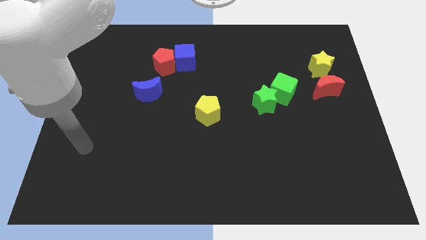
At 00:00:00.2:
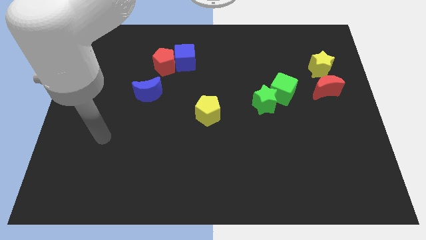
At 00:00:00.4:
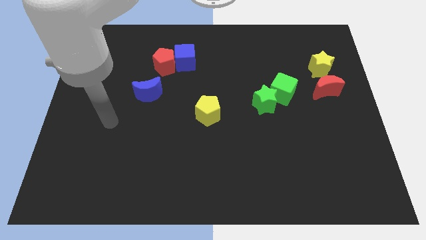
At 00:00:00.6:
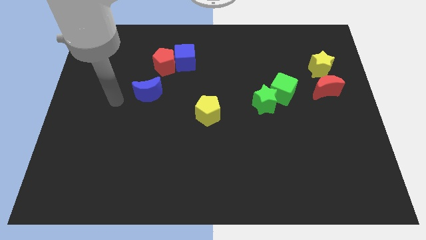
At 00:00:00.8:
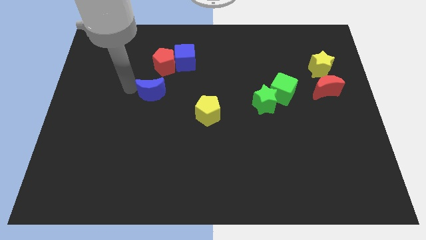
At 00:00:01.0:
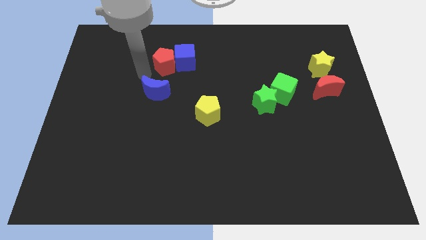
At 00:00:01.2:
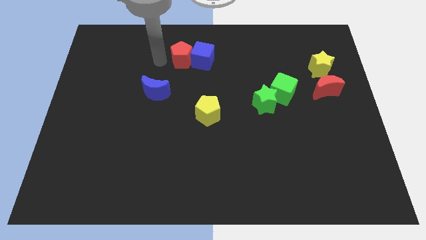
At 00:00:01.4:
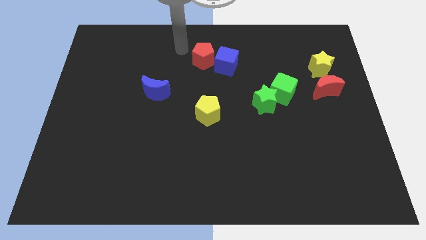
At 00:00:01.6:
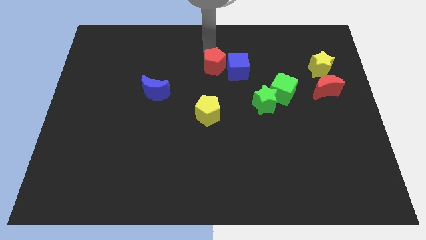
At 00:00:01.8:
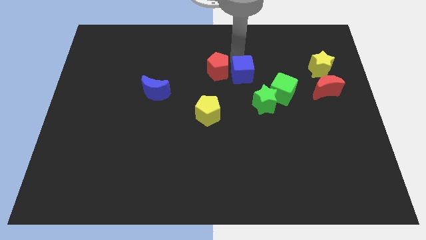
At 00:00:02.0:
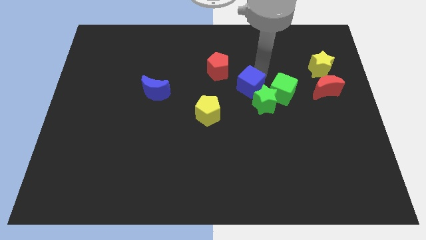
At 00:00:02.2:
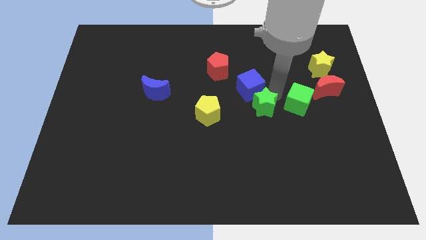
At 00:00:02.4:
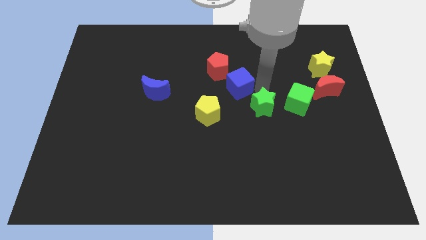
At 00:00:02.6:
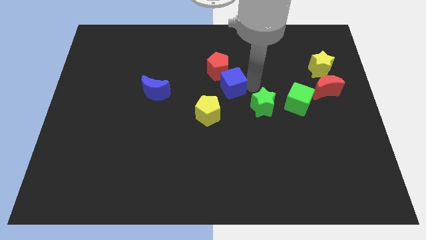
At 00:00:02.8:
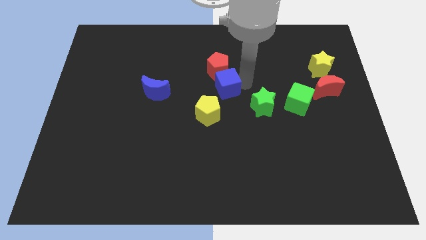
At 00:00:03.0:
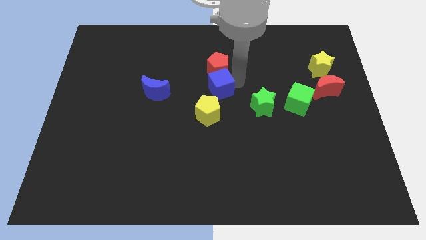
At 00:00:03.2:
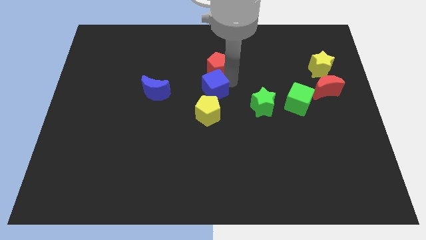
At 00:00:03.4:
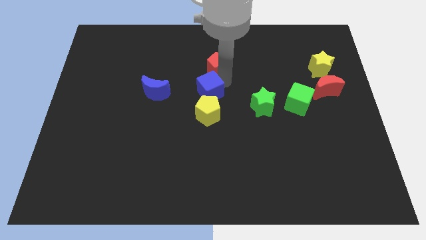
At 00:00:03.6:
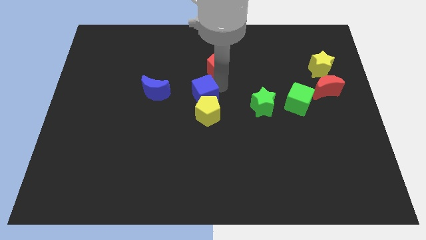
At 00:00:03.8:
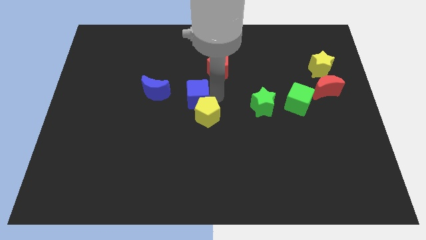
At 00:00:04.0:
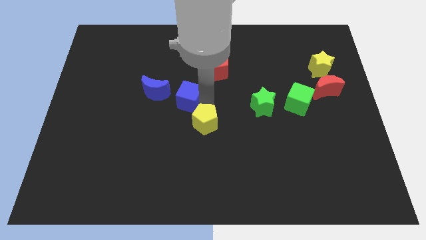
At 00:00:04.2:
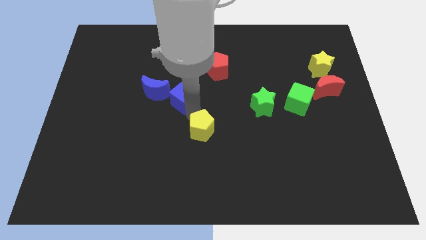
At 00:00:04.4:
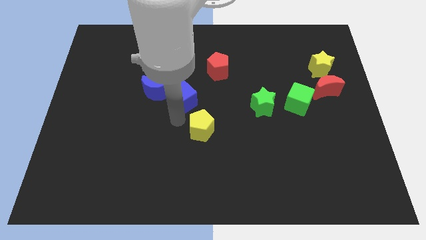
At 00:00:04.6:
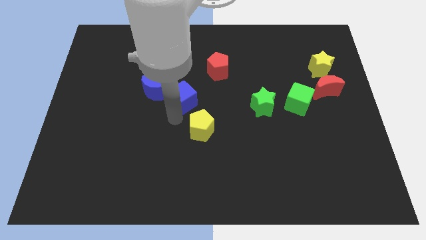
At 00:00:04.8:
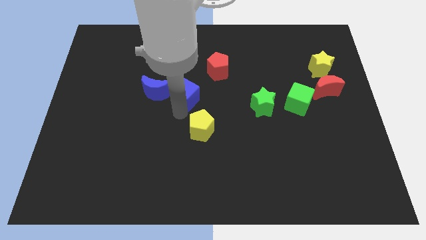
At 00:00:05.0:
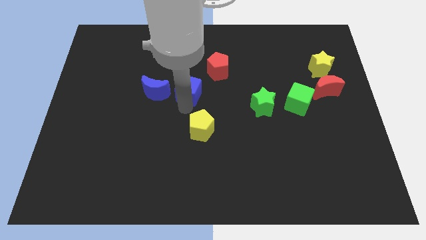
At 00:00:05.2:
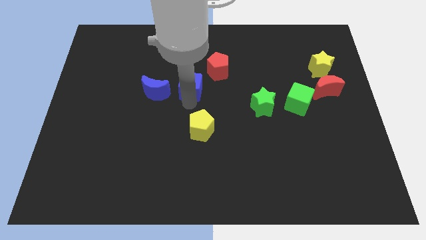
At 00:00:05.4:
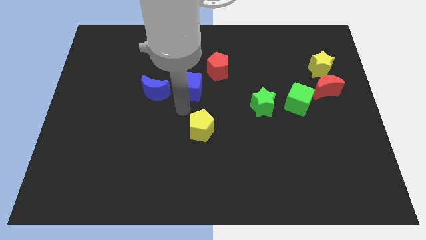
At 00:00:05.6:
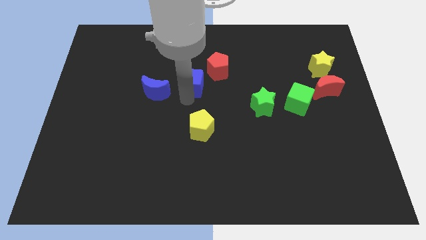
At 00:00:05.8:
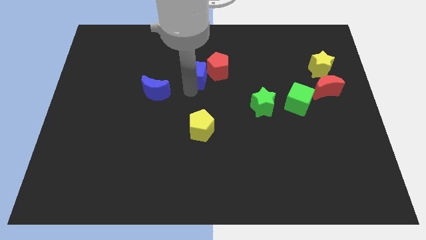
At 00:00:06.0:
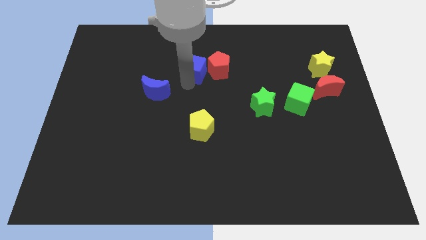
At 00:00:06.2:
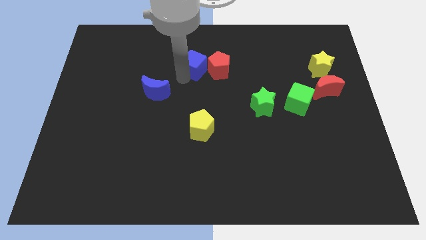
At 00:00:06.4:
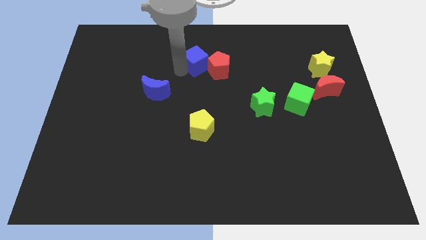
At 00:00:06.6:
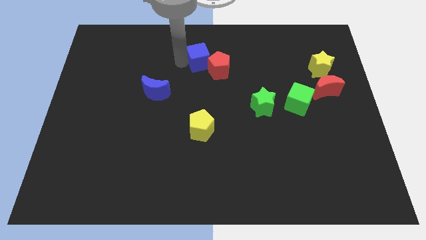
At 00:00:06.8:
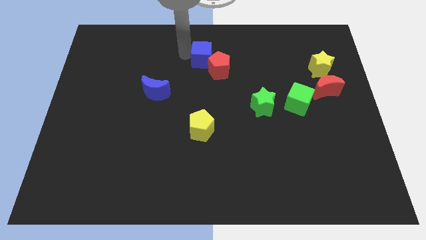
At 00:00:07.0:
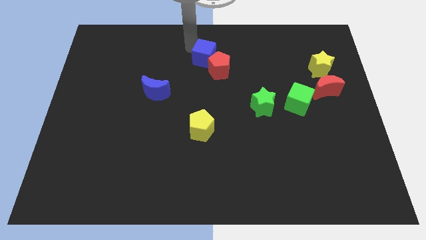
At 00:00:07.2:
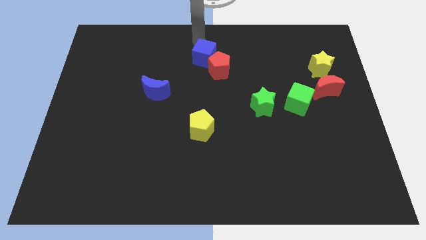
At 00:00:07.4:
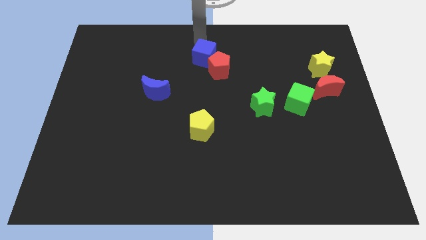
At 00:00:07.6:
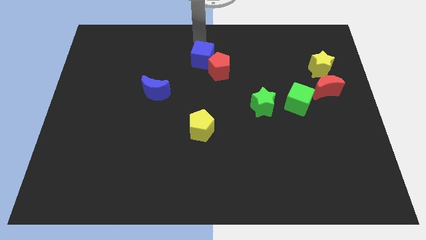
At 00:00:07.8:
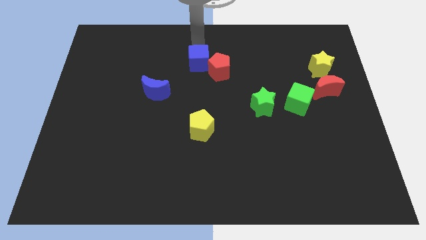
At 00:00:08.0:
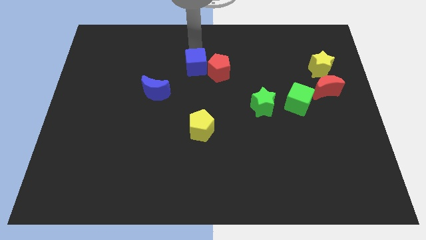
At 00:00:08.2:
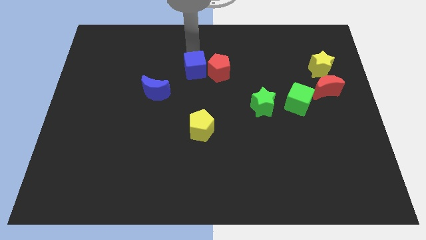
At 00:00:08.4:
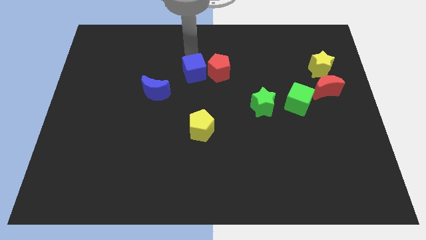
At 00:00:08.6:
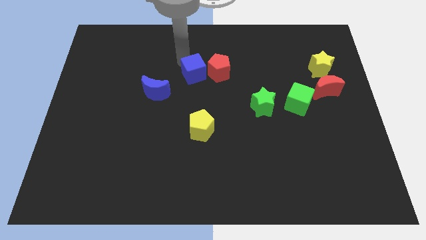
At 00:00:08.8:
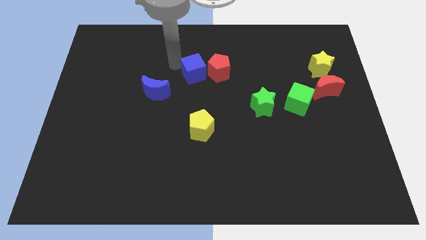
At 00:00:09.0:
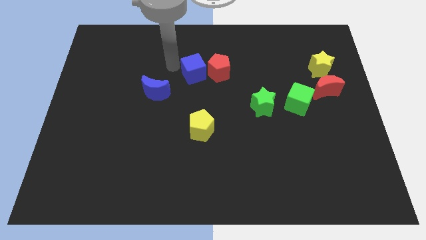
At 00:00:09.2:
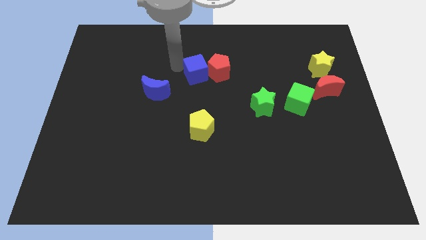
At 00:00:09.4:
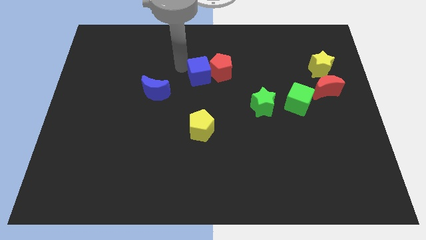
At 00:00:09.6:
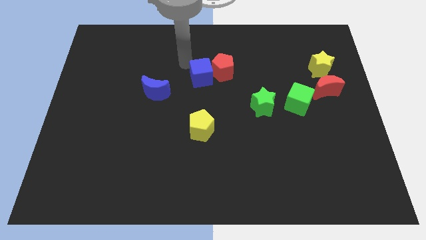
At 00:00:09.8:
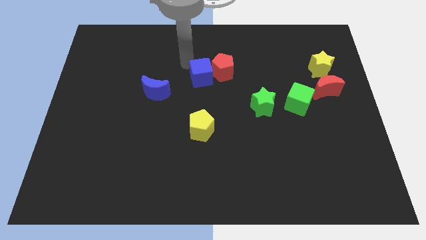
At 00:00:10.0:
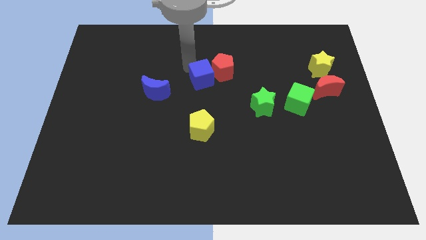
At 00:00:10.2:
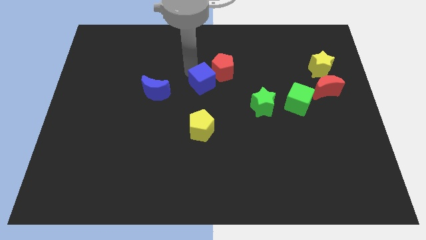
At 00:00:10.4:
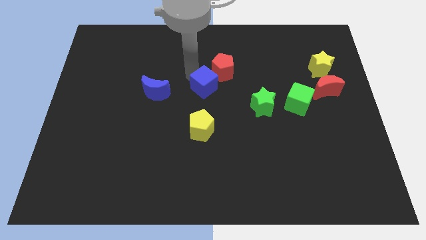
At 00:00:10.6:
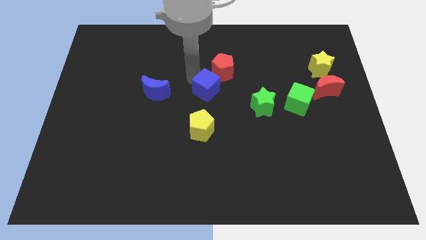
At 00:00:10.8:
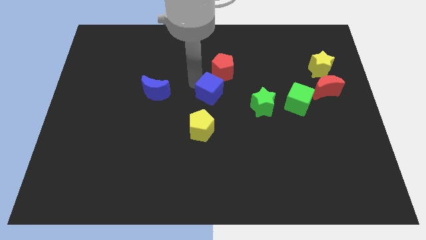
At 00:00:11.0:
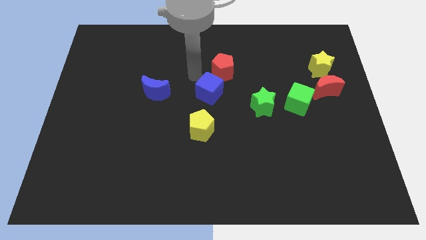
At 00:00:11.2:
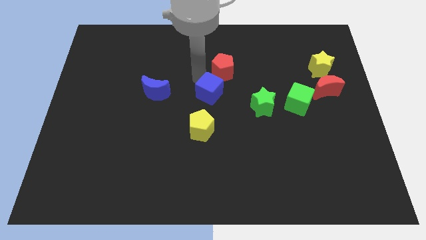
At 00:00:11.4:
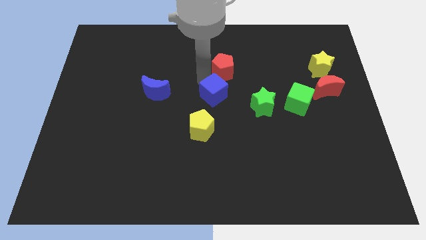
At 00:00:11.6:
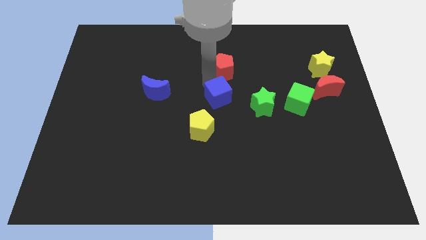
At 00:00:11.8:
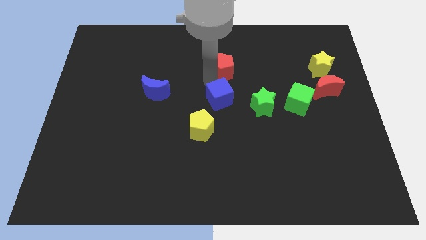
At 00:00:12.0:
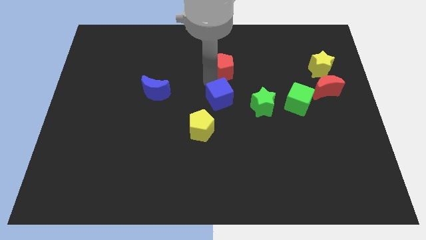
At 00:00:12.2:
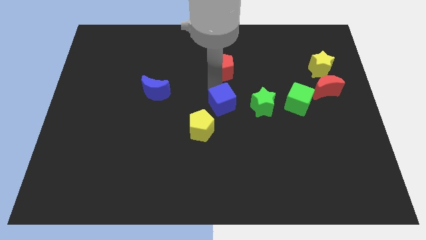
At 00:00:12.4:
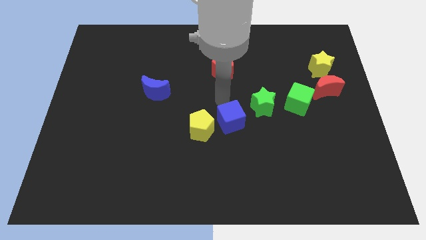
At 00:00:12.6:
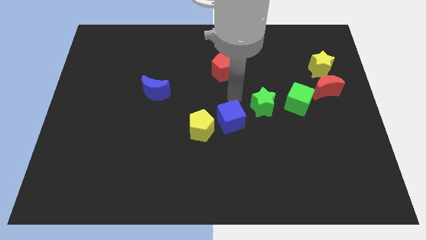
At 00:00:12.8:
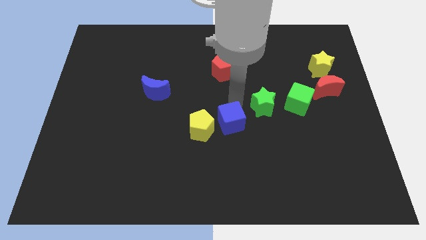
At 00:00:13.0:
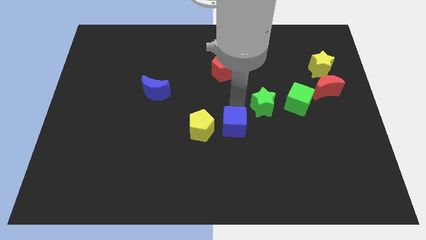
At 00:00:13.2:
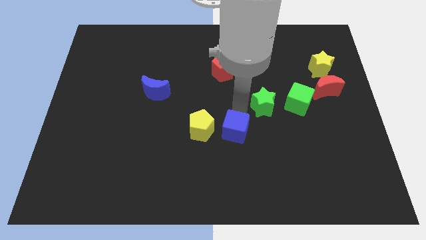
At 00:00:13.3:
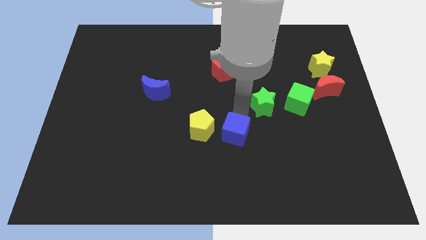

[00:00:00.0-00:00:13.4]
move the blue cube diagonally down and to the right of the yellow pentagon
